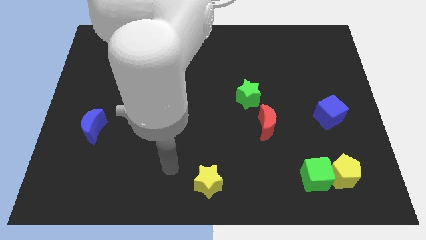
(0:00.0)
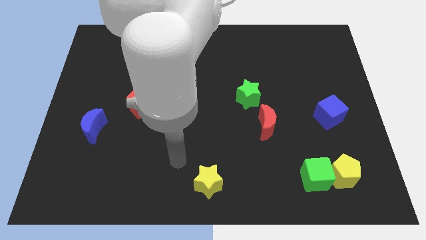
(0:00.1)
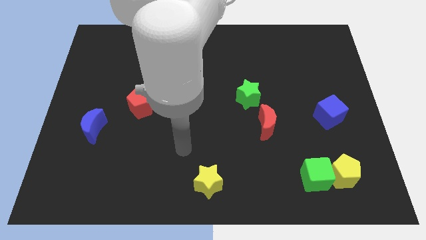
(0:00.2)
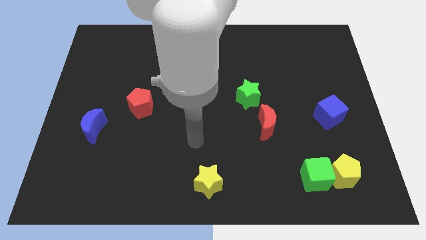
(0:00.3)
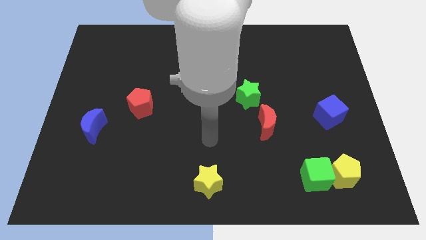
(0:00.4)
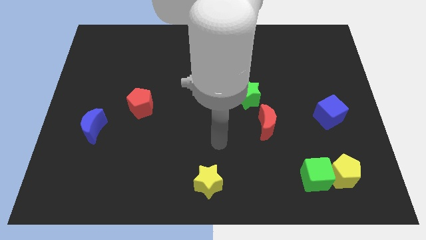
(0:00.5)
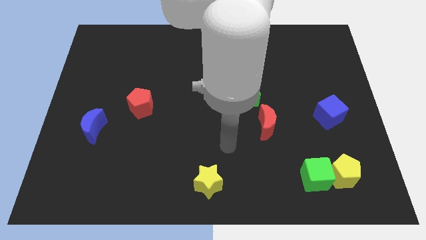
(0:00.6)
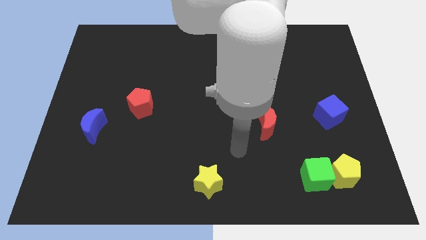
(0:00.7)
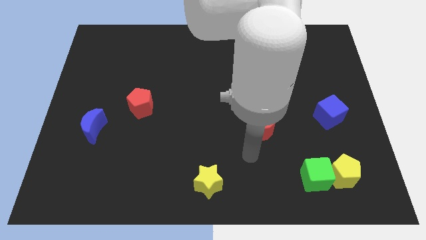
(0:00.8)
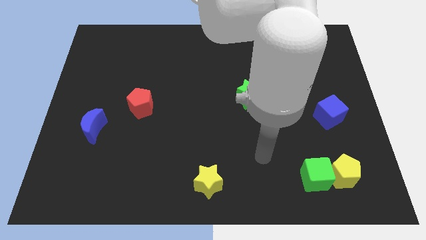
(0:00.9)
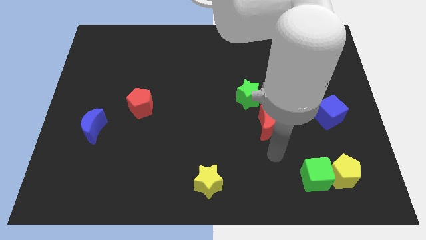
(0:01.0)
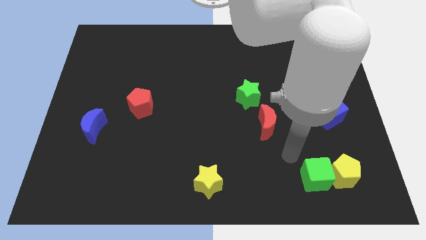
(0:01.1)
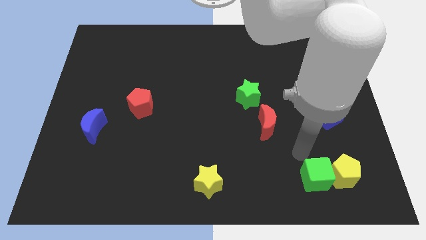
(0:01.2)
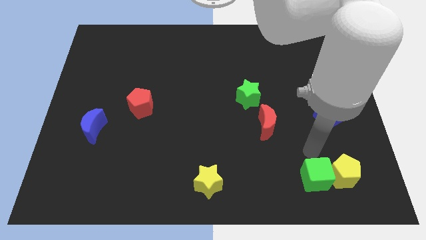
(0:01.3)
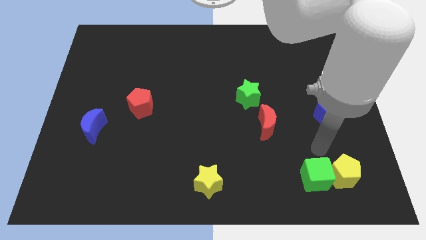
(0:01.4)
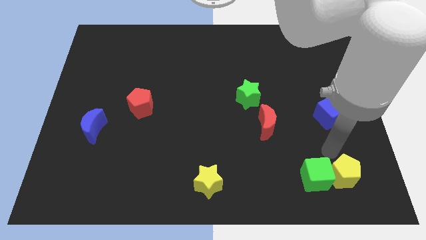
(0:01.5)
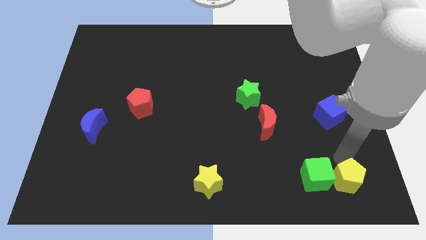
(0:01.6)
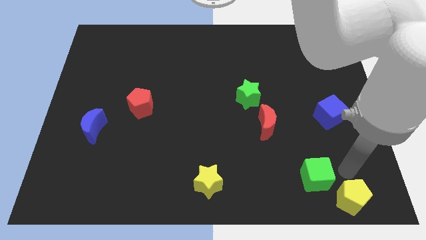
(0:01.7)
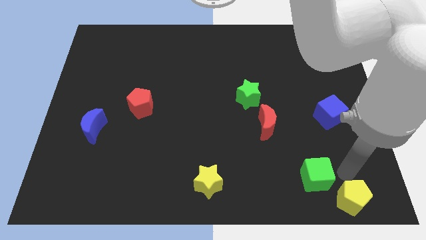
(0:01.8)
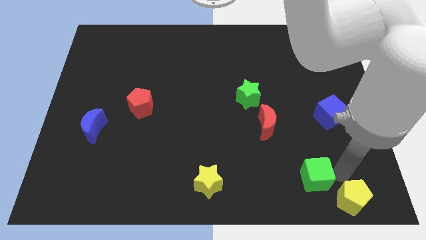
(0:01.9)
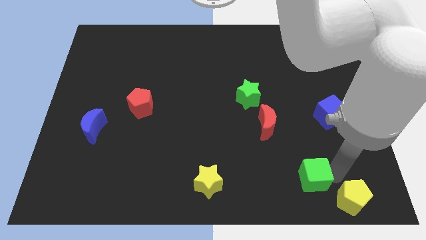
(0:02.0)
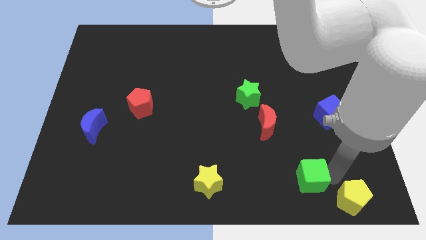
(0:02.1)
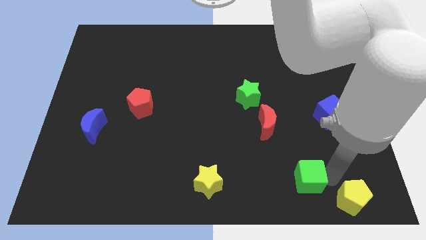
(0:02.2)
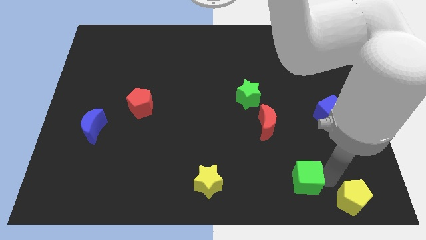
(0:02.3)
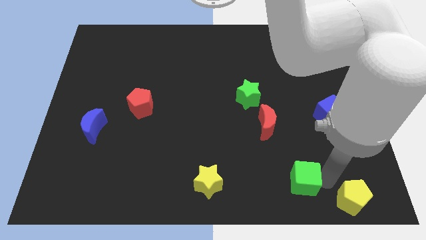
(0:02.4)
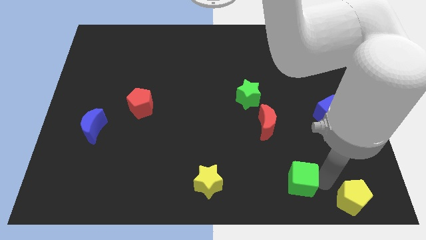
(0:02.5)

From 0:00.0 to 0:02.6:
pull the green cube apart from the yellow pentagon

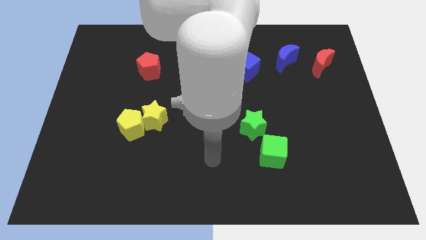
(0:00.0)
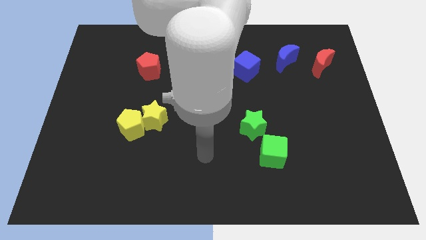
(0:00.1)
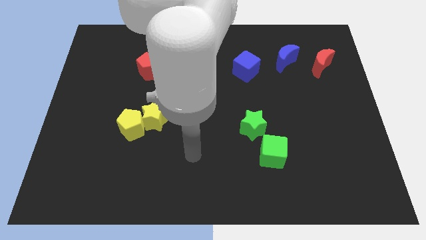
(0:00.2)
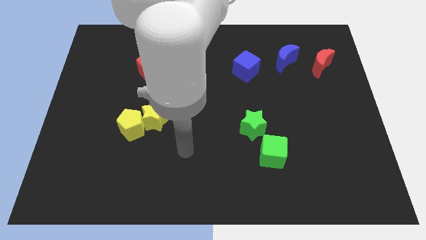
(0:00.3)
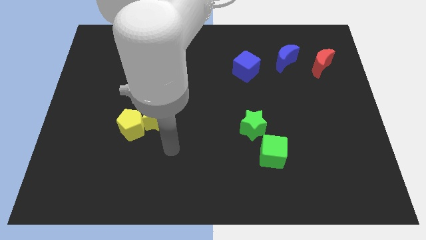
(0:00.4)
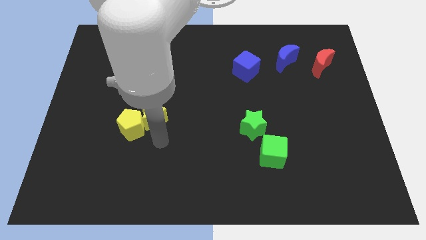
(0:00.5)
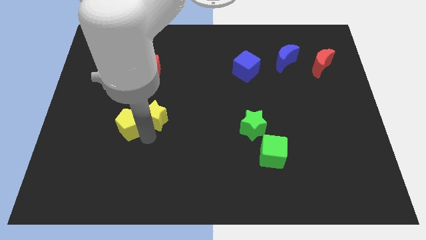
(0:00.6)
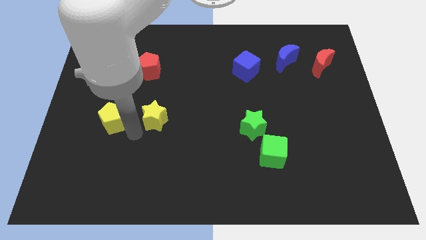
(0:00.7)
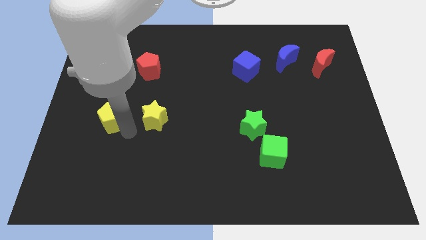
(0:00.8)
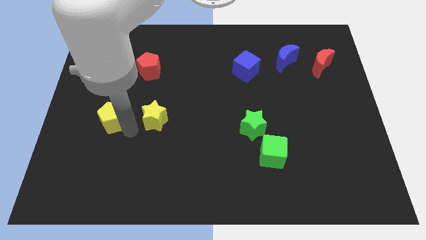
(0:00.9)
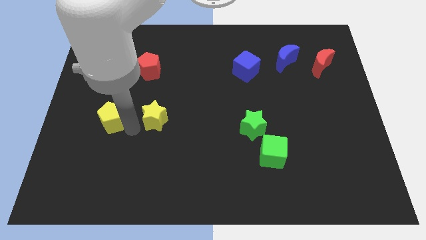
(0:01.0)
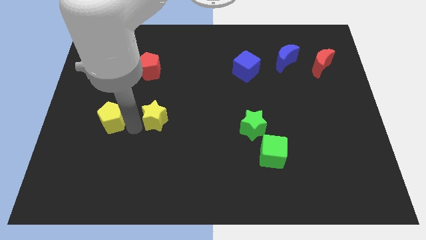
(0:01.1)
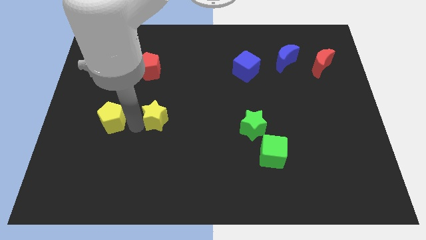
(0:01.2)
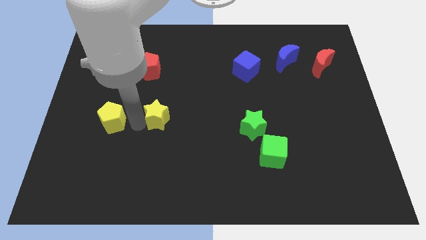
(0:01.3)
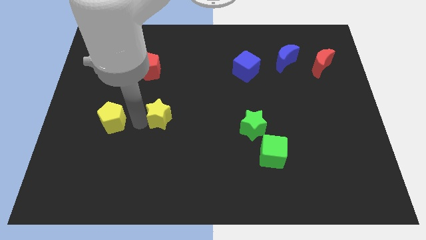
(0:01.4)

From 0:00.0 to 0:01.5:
move the yellow star away from the yellow pentagon

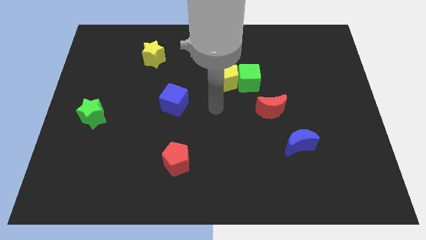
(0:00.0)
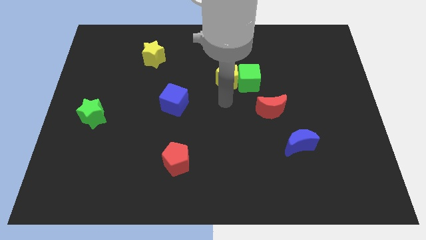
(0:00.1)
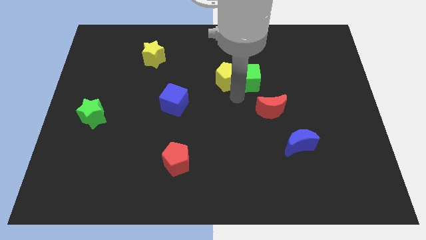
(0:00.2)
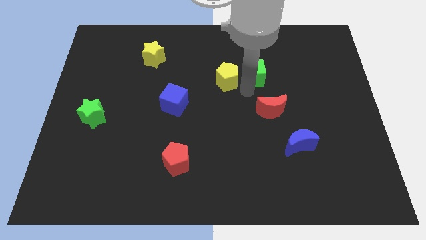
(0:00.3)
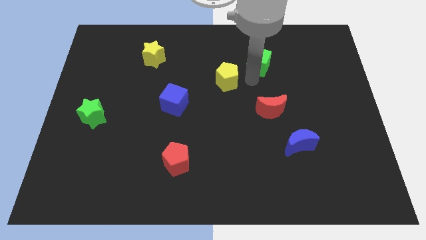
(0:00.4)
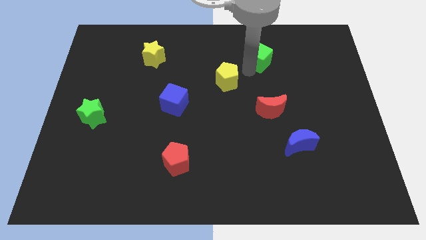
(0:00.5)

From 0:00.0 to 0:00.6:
move the yellow pentagon away from the green cube

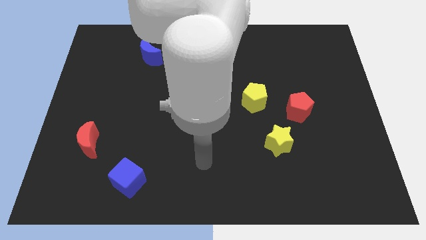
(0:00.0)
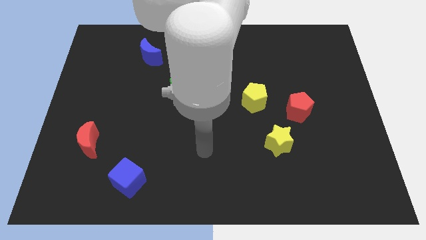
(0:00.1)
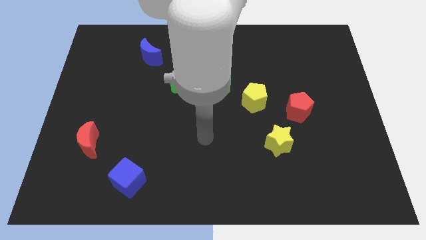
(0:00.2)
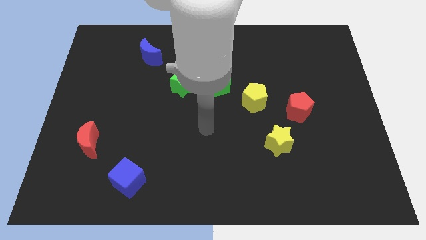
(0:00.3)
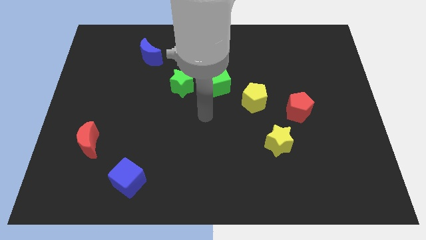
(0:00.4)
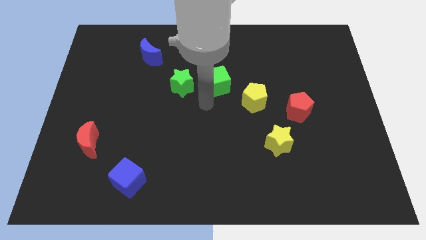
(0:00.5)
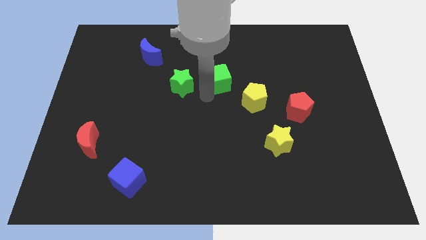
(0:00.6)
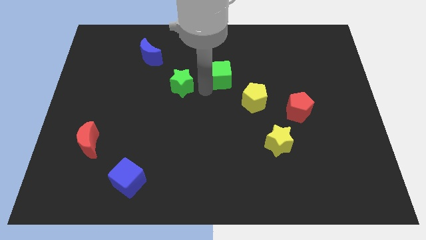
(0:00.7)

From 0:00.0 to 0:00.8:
separate the green star from the green cube

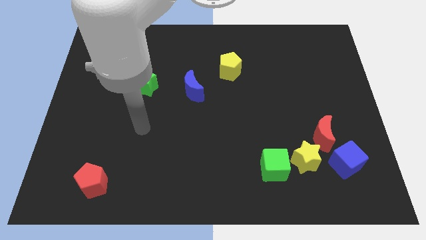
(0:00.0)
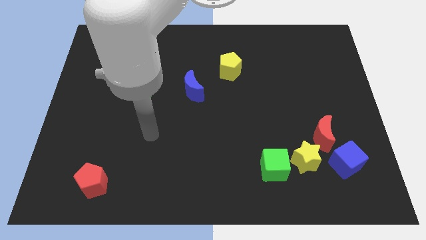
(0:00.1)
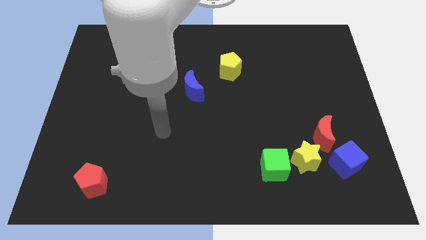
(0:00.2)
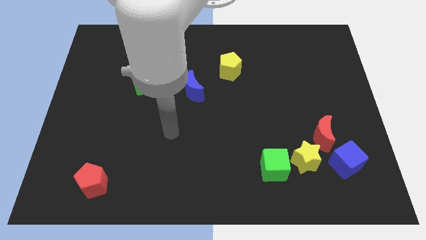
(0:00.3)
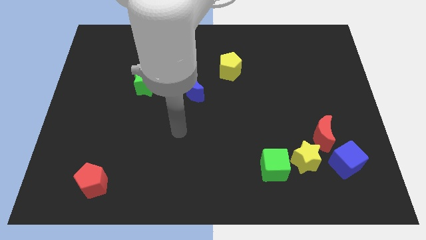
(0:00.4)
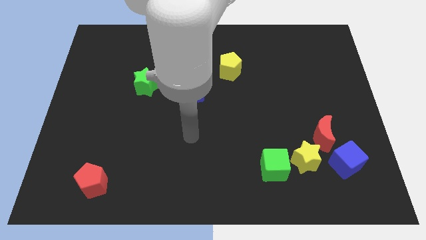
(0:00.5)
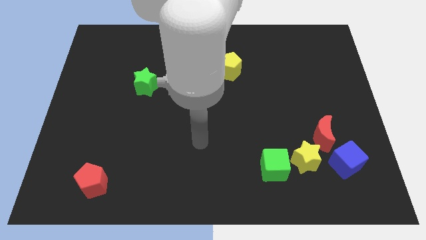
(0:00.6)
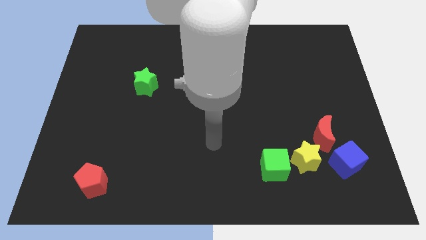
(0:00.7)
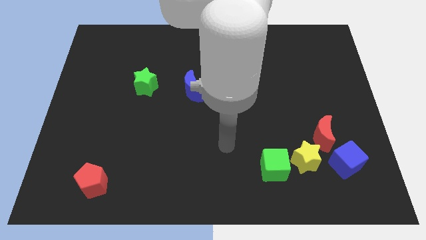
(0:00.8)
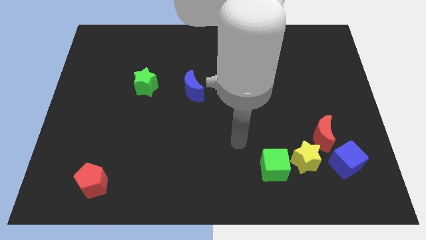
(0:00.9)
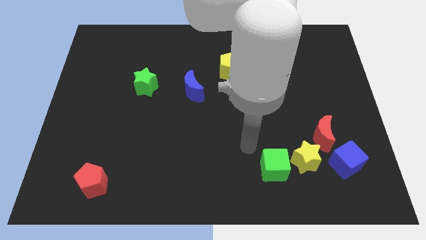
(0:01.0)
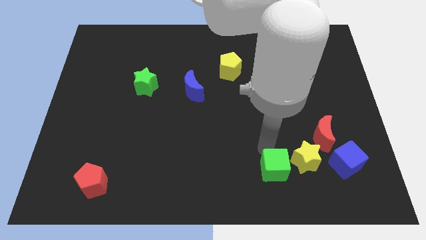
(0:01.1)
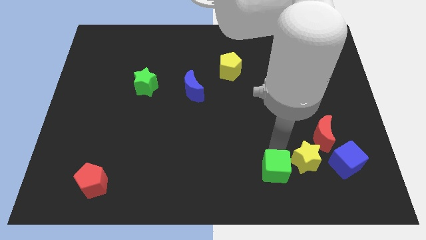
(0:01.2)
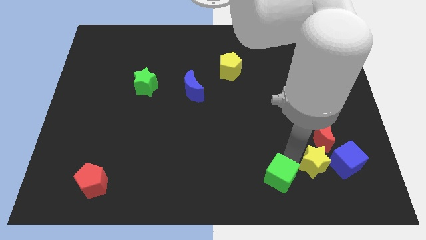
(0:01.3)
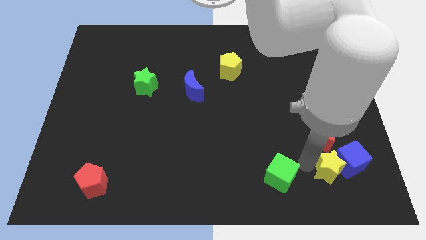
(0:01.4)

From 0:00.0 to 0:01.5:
pull the green cube apart from the yellow star

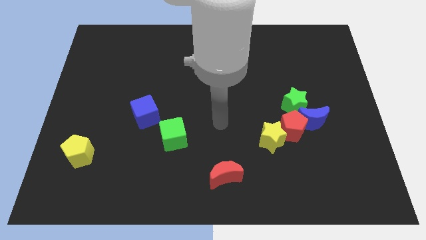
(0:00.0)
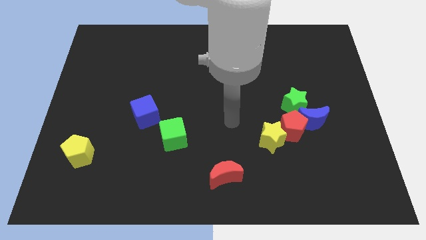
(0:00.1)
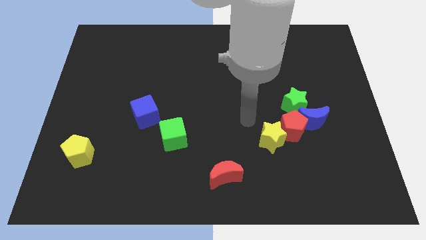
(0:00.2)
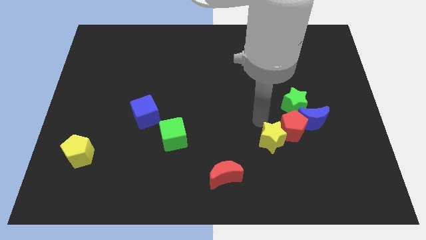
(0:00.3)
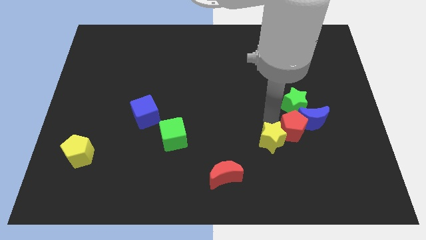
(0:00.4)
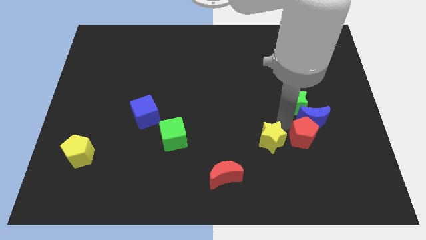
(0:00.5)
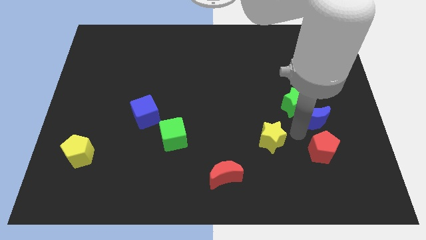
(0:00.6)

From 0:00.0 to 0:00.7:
pull the yellow star apart from the red pentagon

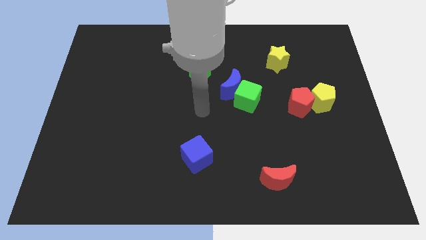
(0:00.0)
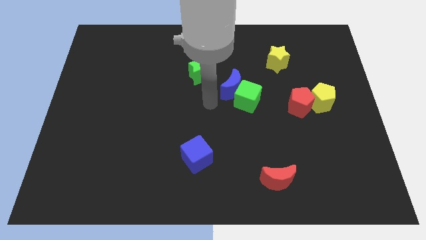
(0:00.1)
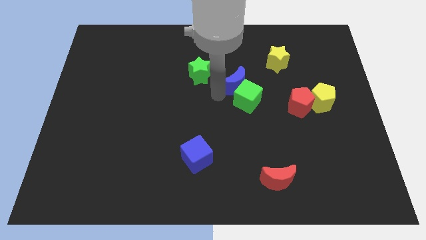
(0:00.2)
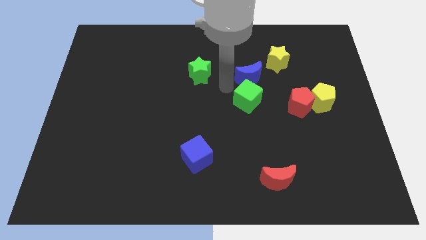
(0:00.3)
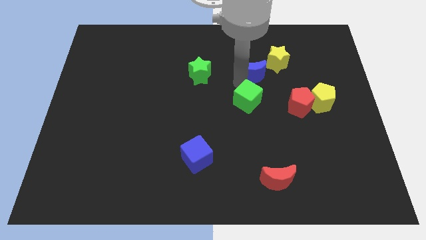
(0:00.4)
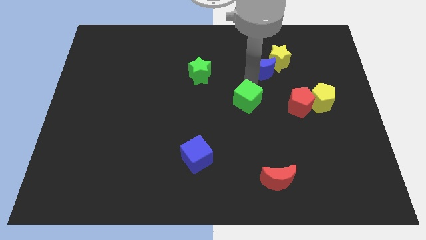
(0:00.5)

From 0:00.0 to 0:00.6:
move the green cube away from the blue moon

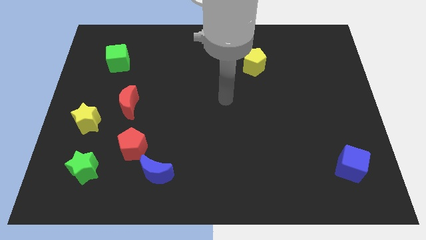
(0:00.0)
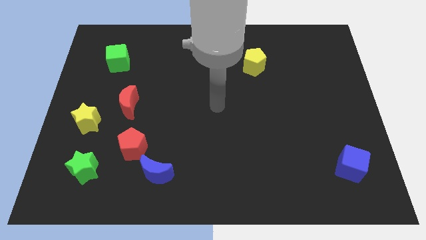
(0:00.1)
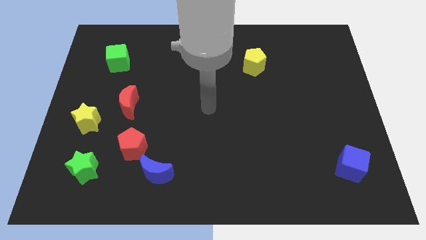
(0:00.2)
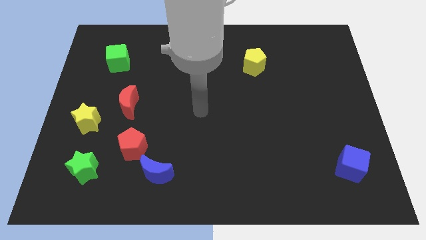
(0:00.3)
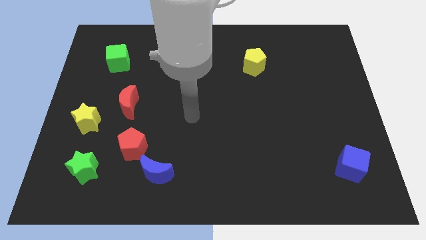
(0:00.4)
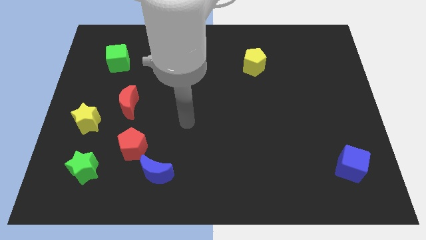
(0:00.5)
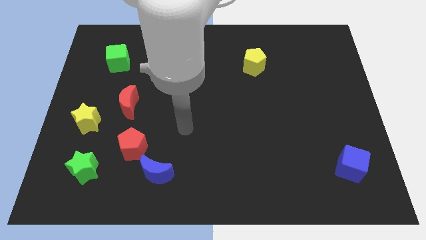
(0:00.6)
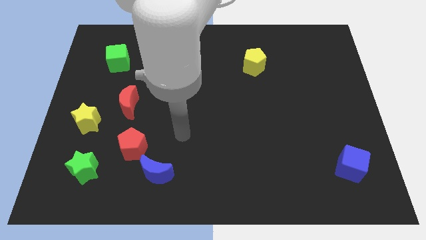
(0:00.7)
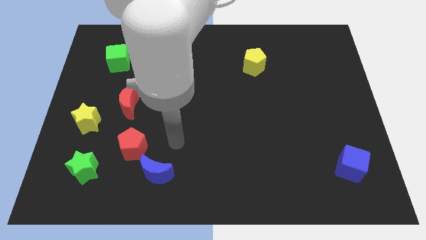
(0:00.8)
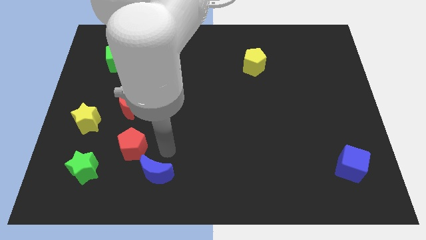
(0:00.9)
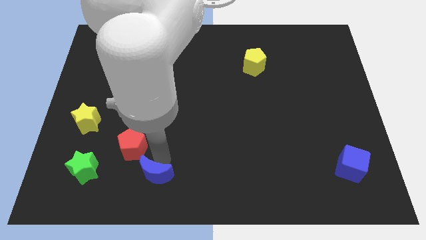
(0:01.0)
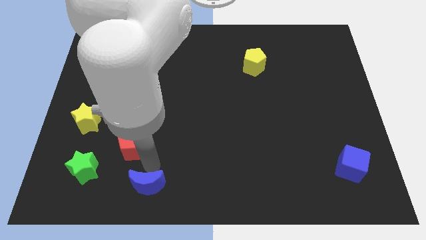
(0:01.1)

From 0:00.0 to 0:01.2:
pull the red pentagon apart from the blue moon
